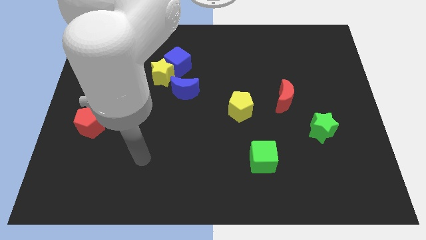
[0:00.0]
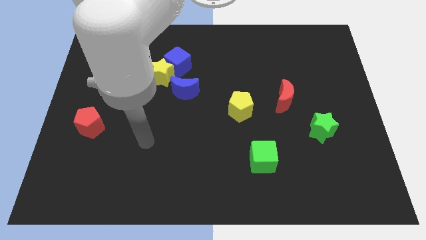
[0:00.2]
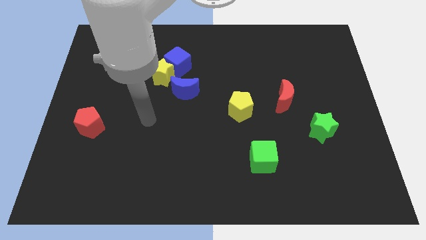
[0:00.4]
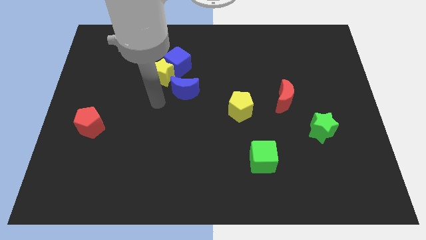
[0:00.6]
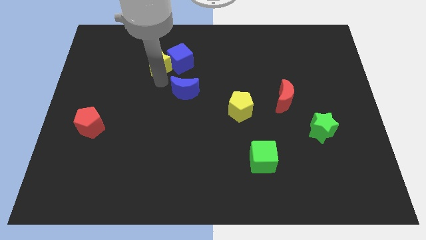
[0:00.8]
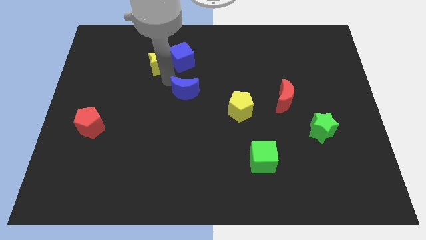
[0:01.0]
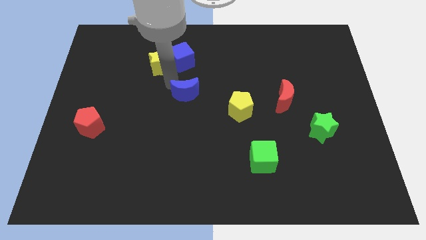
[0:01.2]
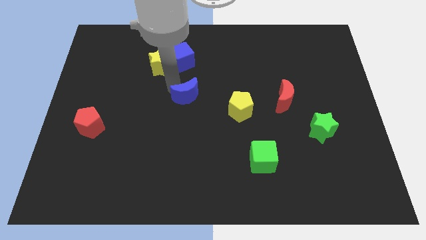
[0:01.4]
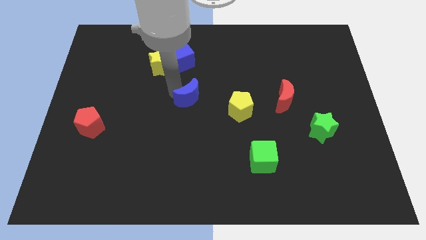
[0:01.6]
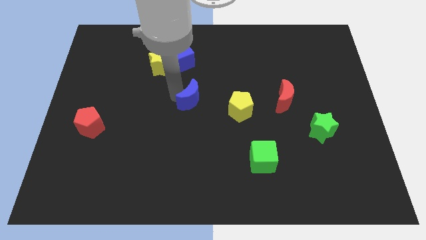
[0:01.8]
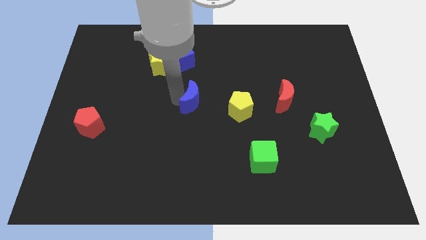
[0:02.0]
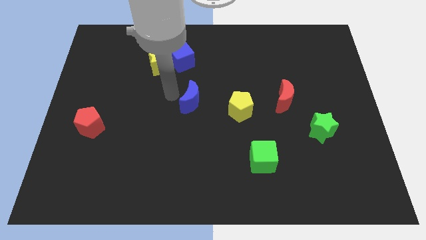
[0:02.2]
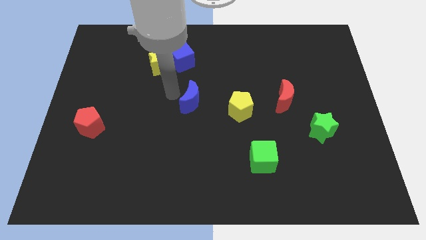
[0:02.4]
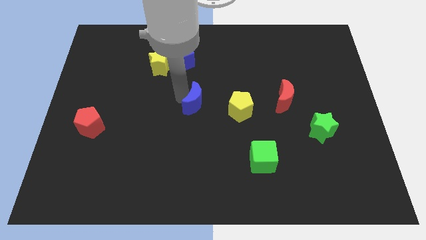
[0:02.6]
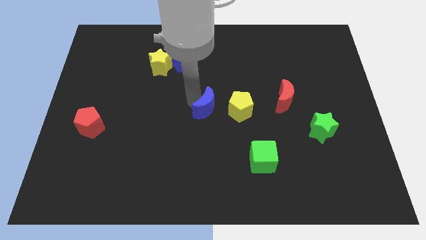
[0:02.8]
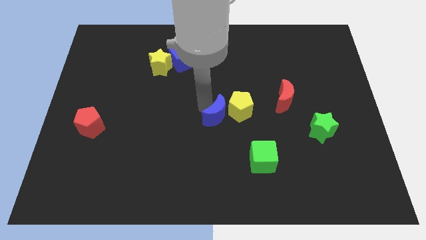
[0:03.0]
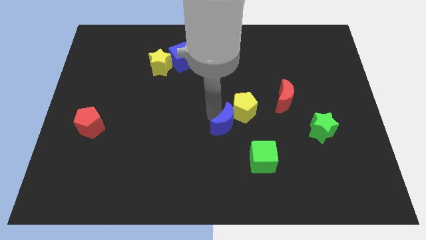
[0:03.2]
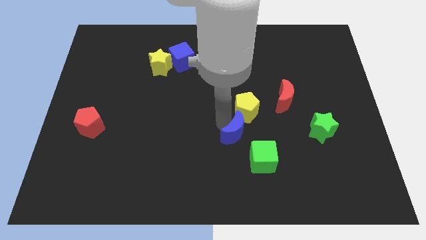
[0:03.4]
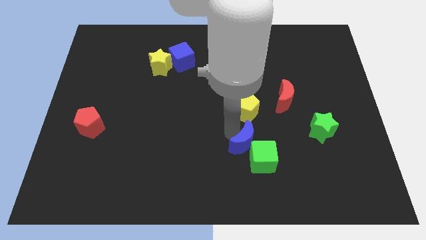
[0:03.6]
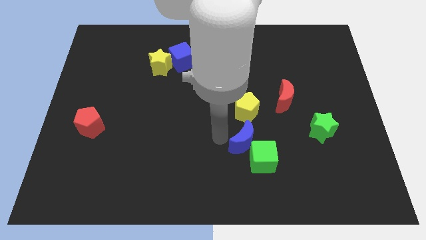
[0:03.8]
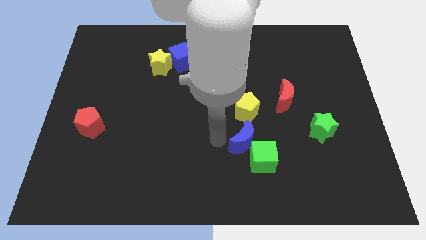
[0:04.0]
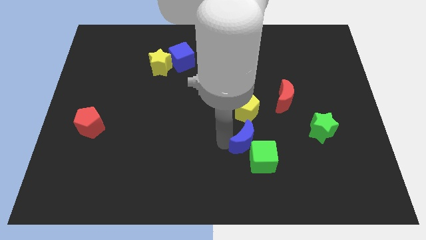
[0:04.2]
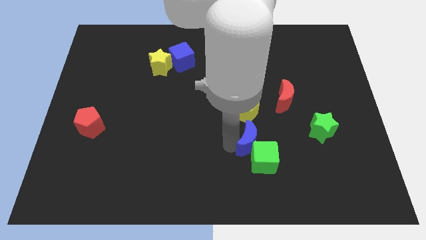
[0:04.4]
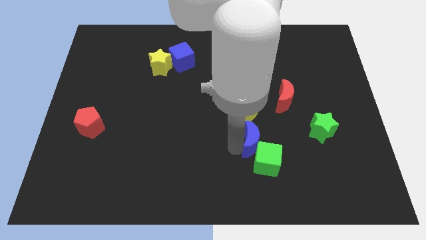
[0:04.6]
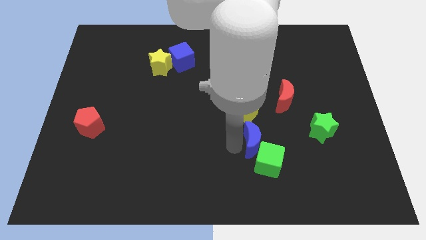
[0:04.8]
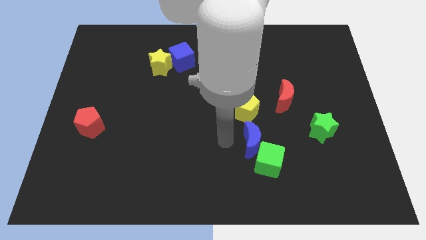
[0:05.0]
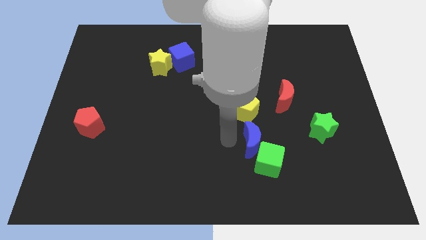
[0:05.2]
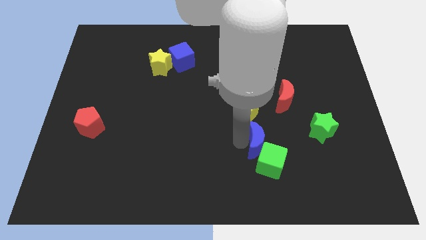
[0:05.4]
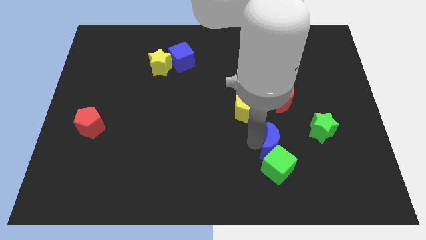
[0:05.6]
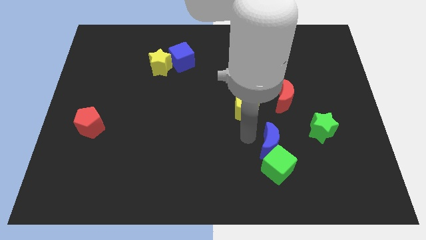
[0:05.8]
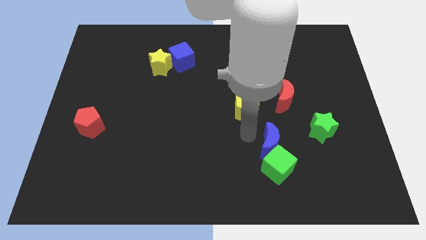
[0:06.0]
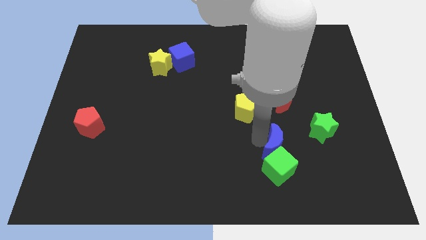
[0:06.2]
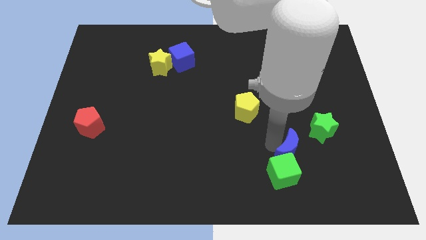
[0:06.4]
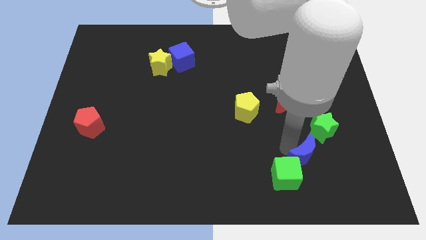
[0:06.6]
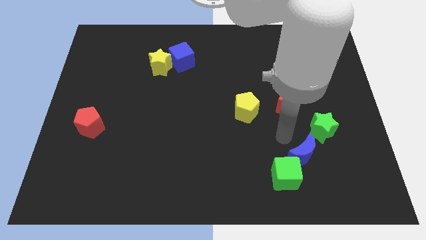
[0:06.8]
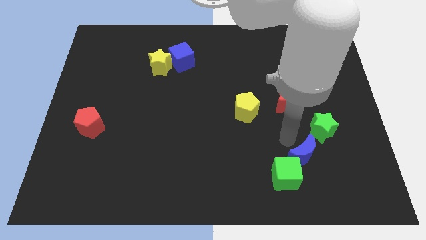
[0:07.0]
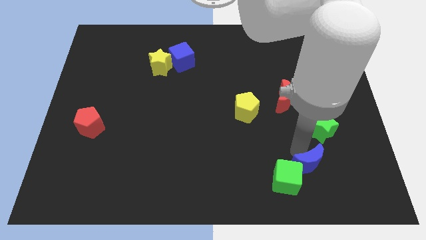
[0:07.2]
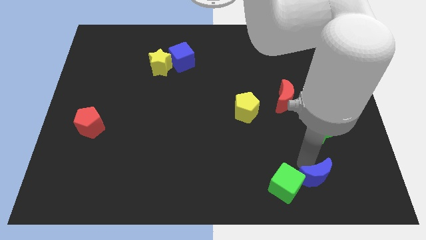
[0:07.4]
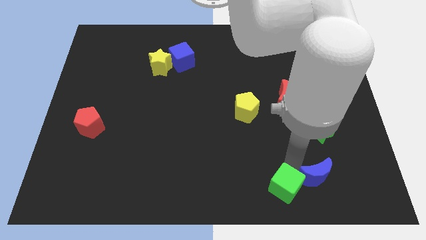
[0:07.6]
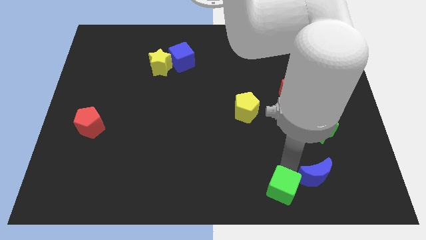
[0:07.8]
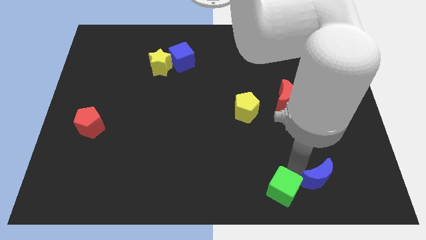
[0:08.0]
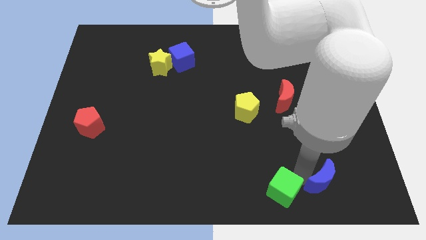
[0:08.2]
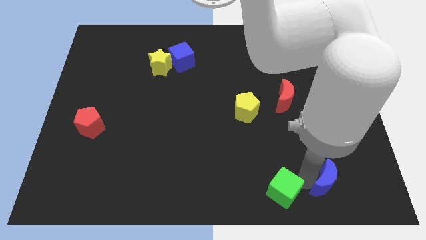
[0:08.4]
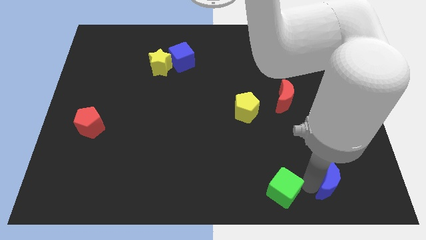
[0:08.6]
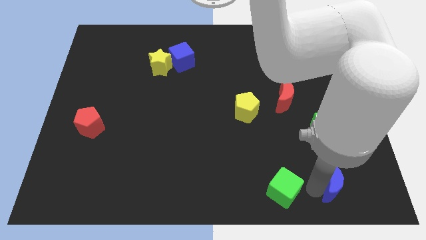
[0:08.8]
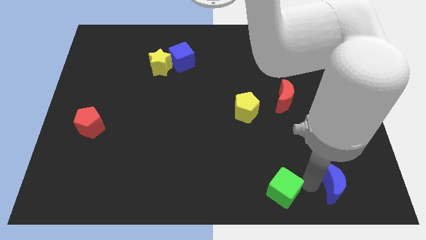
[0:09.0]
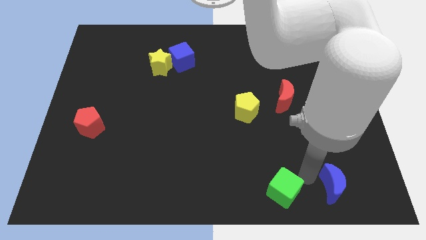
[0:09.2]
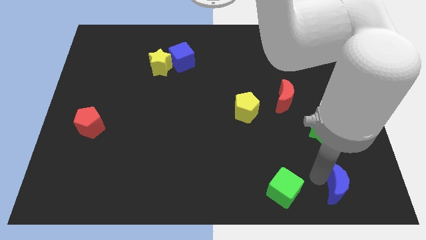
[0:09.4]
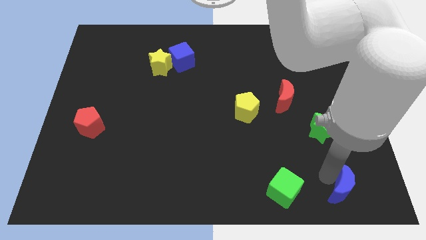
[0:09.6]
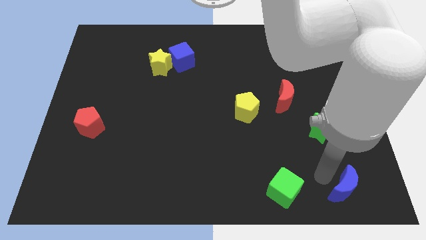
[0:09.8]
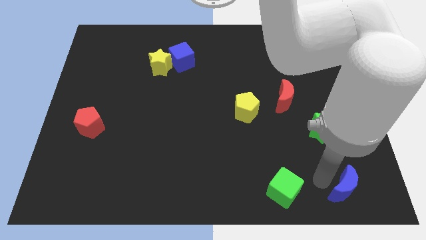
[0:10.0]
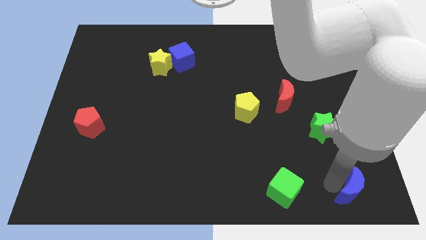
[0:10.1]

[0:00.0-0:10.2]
slide the blue moon to the bottom right corner

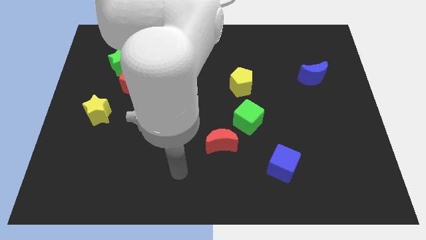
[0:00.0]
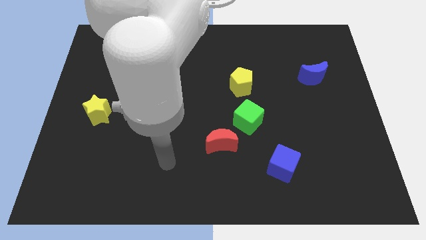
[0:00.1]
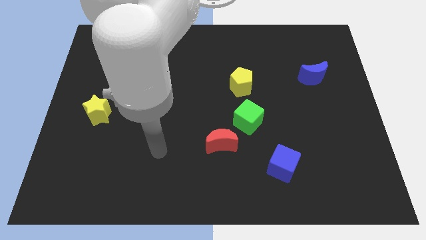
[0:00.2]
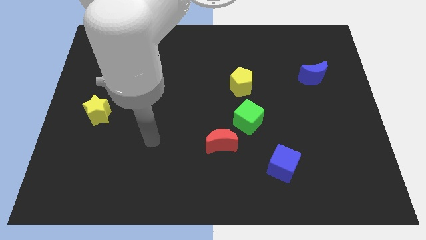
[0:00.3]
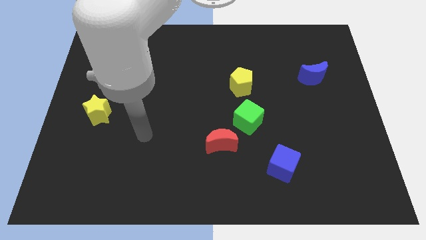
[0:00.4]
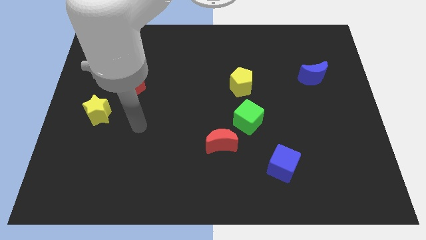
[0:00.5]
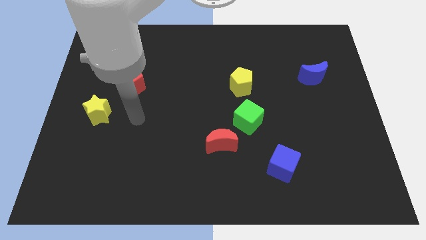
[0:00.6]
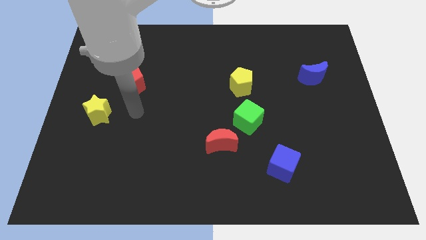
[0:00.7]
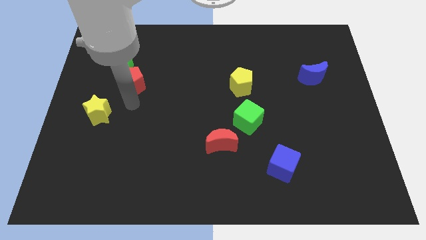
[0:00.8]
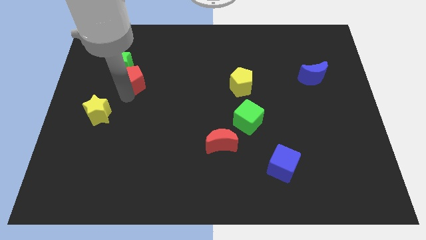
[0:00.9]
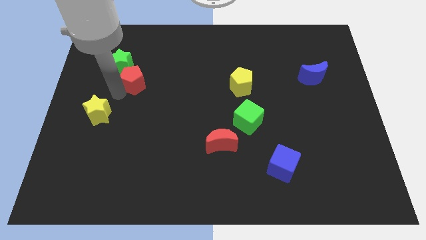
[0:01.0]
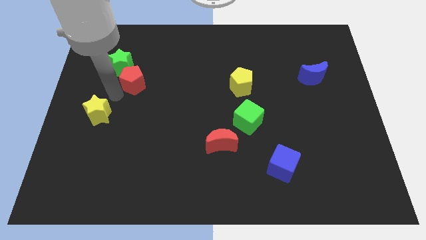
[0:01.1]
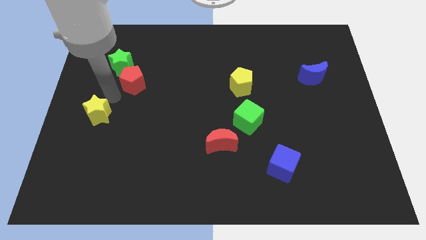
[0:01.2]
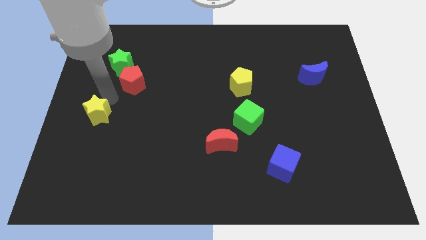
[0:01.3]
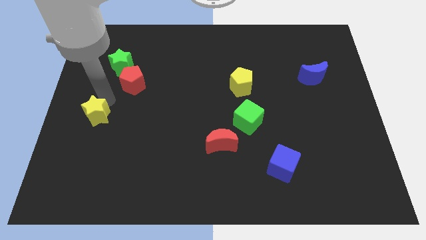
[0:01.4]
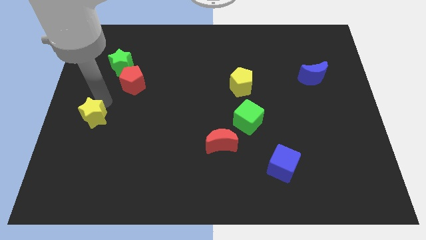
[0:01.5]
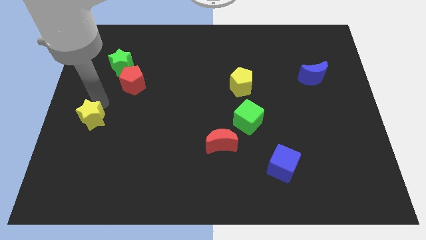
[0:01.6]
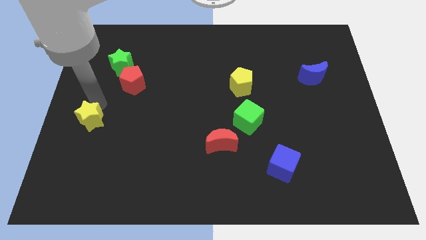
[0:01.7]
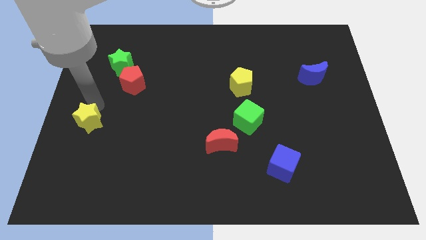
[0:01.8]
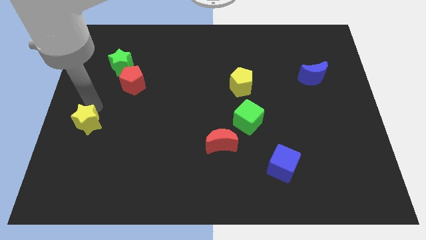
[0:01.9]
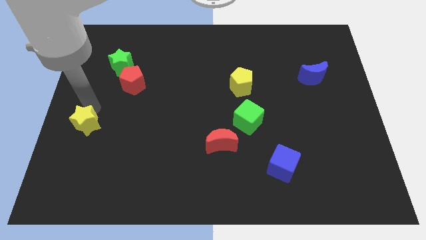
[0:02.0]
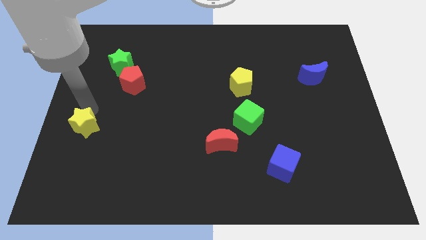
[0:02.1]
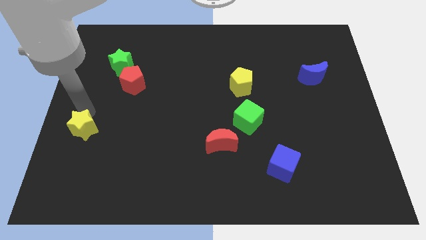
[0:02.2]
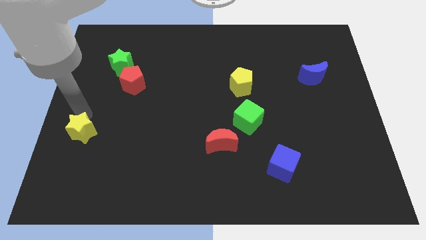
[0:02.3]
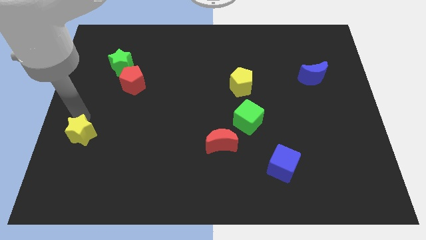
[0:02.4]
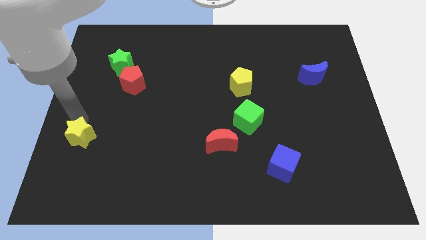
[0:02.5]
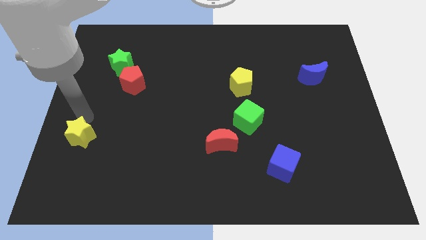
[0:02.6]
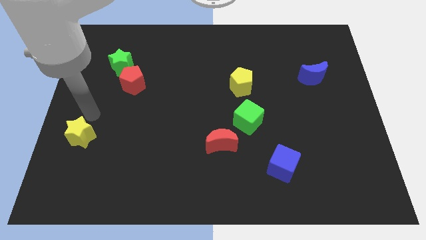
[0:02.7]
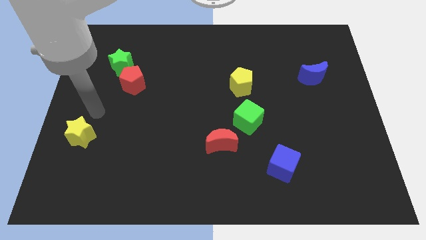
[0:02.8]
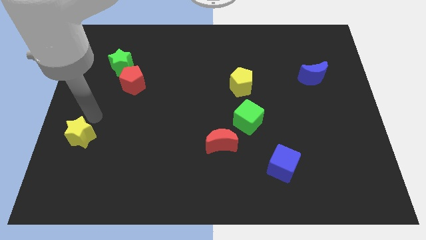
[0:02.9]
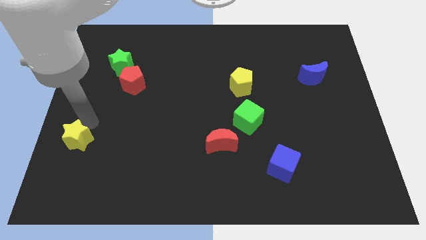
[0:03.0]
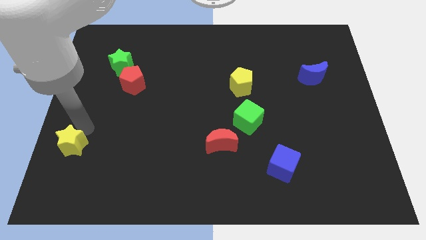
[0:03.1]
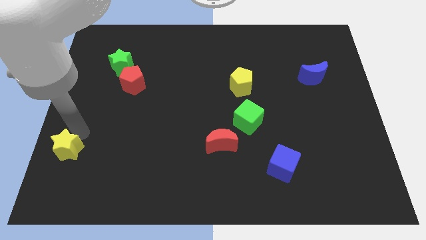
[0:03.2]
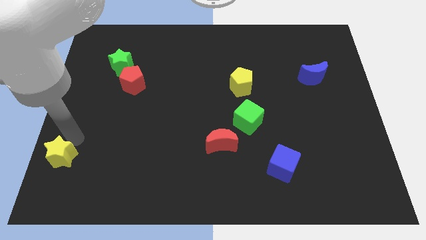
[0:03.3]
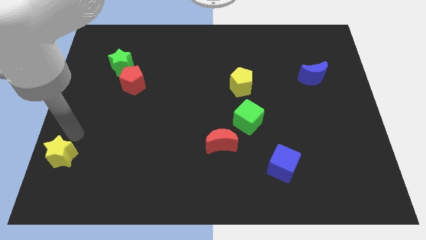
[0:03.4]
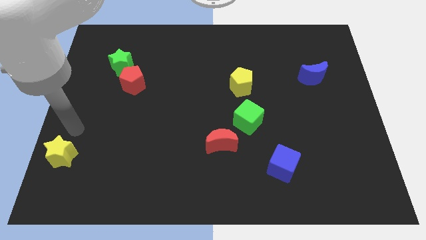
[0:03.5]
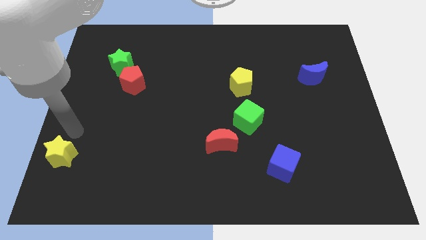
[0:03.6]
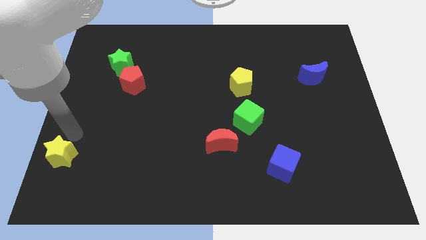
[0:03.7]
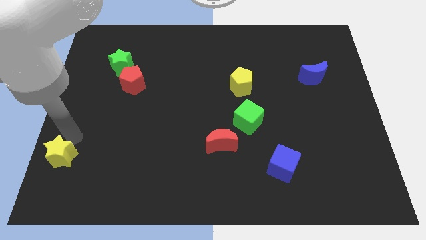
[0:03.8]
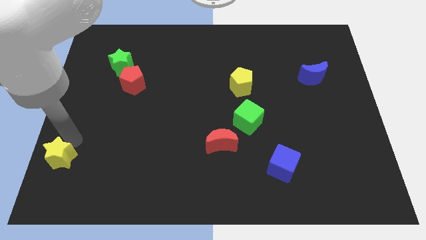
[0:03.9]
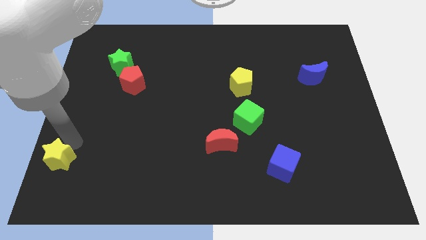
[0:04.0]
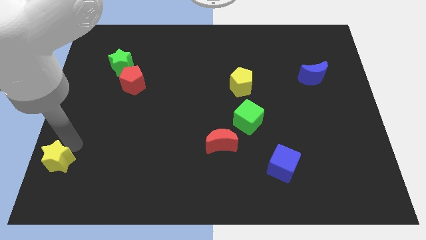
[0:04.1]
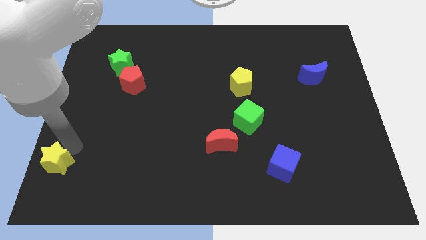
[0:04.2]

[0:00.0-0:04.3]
move the yellow star to the bottom left
